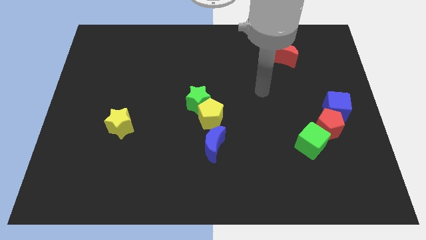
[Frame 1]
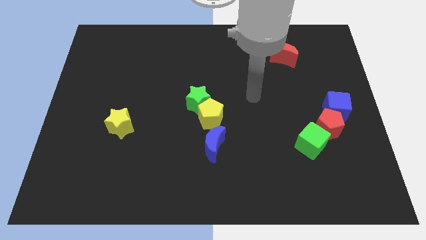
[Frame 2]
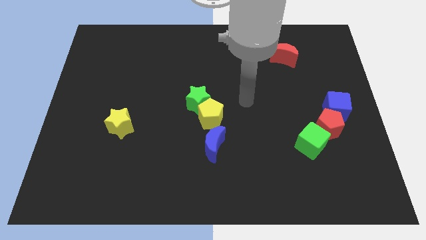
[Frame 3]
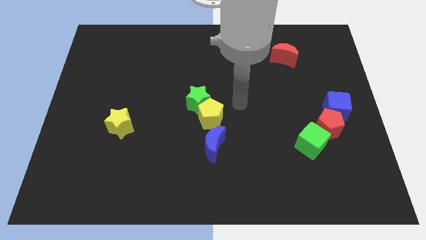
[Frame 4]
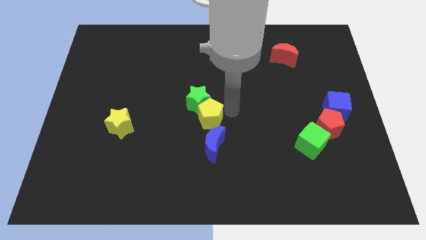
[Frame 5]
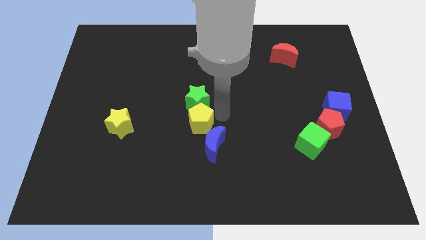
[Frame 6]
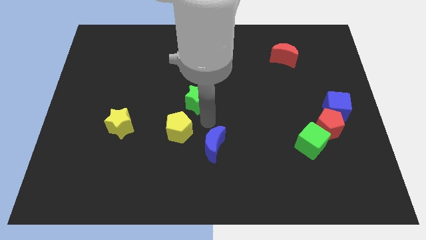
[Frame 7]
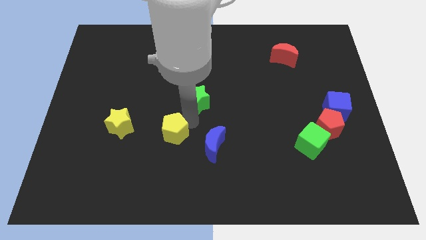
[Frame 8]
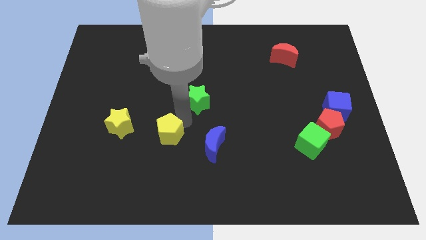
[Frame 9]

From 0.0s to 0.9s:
separate the green star from the yellow pentagon

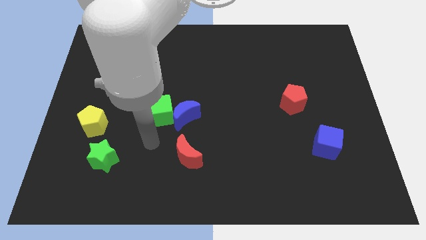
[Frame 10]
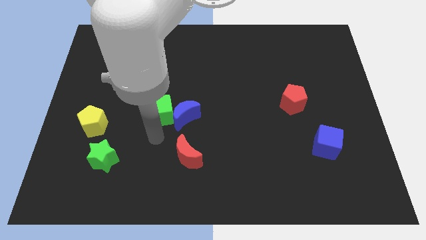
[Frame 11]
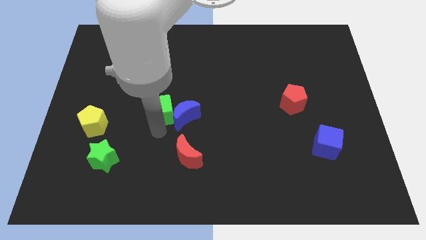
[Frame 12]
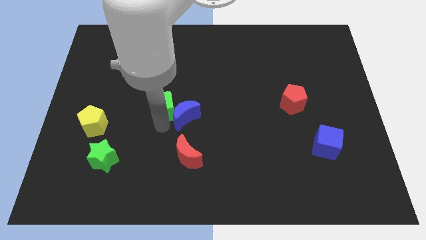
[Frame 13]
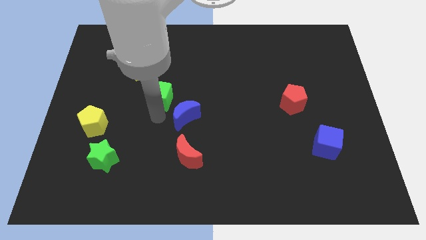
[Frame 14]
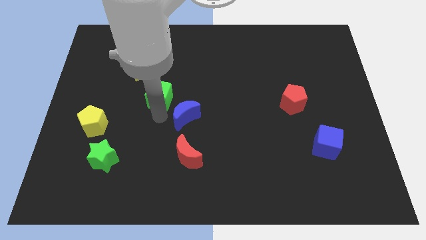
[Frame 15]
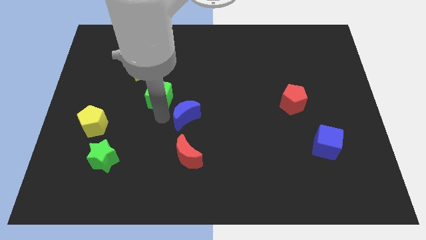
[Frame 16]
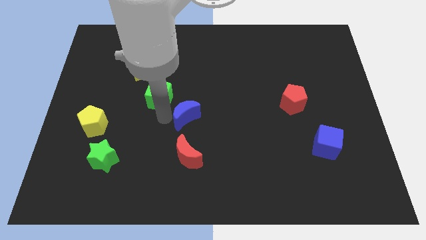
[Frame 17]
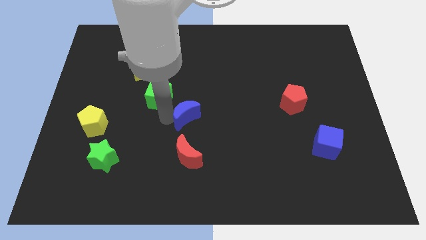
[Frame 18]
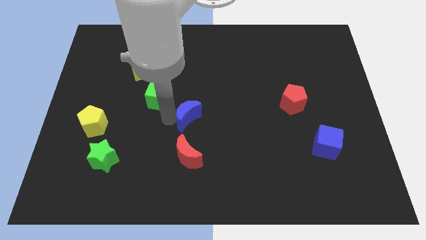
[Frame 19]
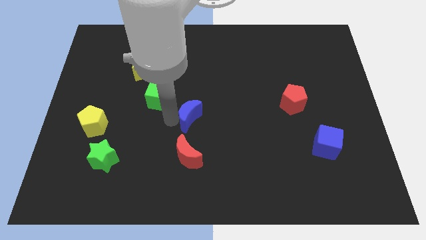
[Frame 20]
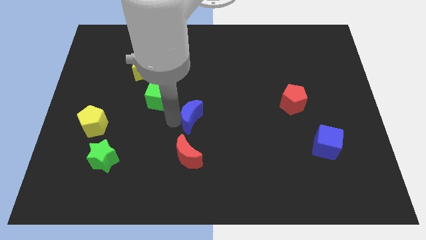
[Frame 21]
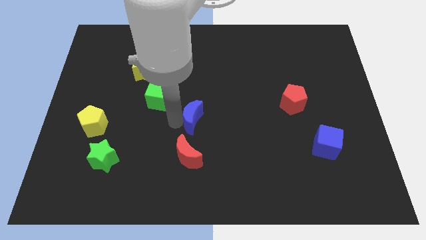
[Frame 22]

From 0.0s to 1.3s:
pull the blue moon apart from the green cube

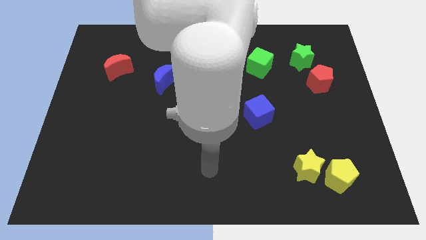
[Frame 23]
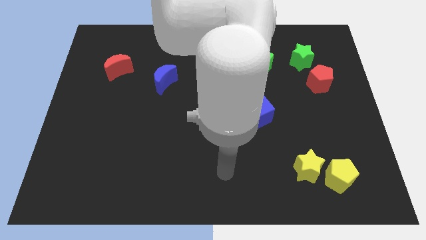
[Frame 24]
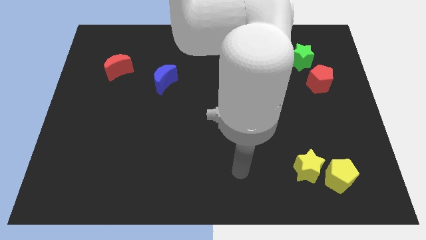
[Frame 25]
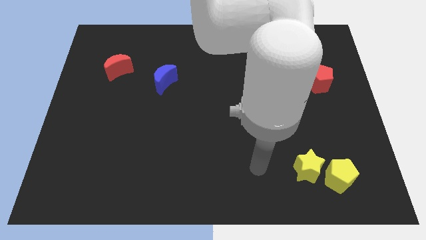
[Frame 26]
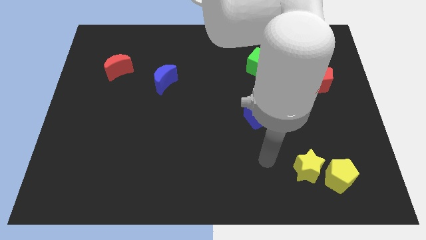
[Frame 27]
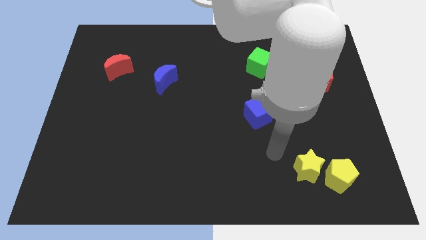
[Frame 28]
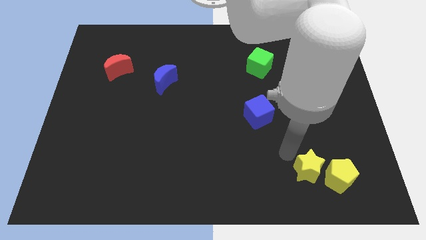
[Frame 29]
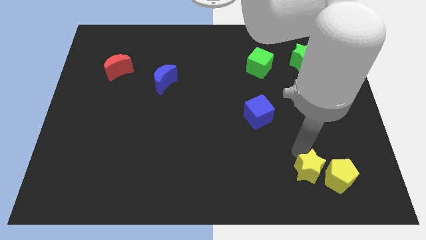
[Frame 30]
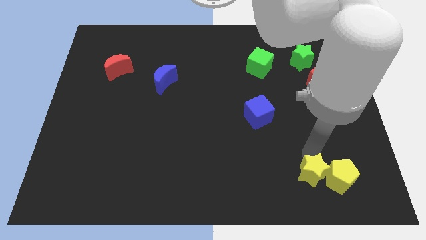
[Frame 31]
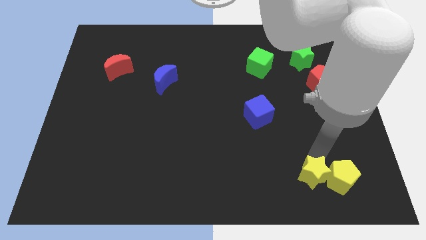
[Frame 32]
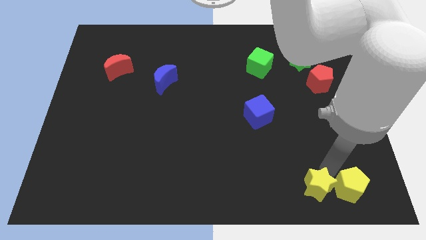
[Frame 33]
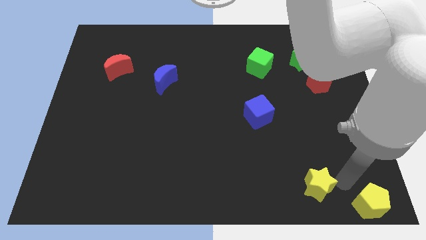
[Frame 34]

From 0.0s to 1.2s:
separate the yellow star from the yellow pentagon

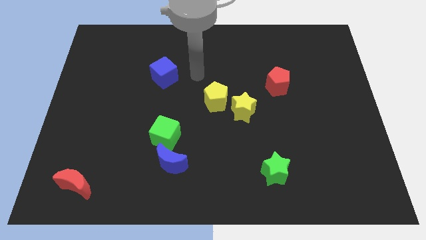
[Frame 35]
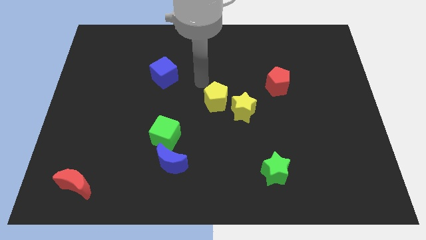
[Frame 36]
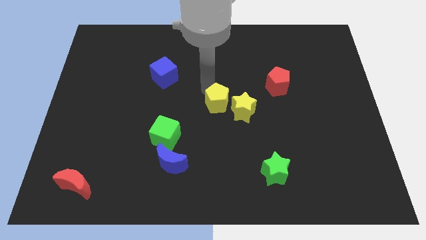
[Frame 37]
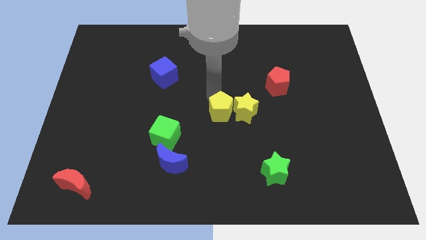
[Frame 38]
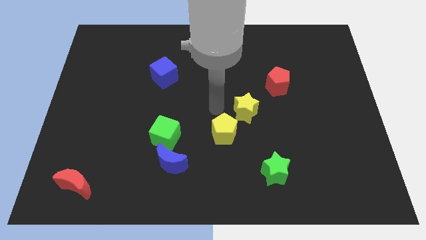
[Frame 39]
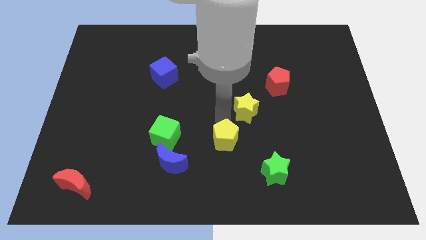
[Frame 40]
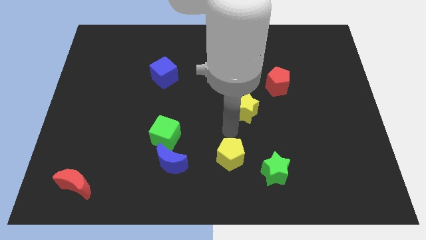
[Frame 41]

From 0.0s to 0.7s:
pull the yellow star apart from the yellow pentagon

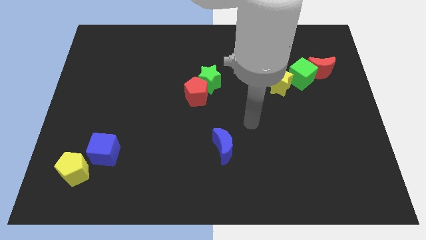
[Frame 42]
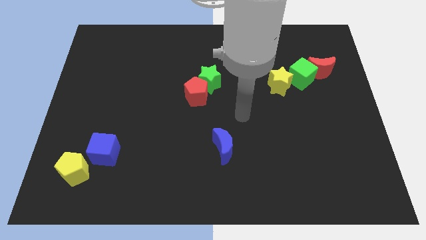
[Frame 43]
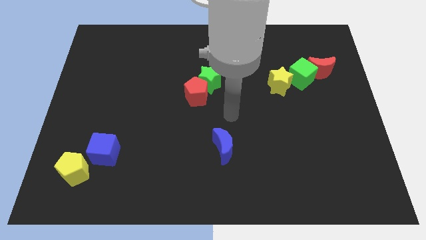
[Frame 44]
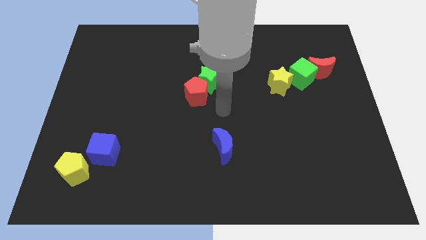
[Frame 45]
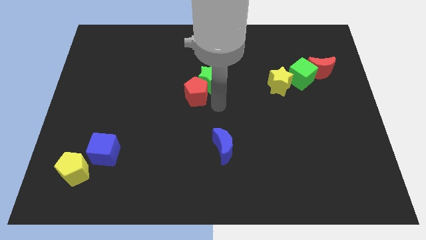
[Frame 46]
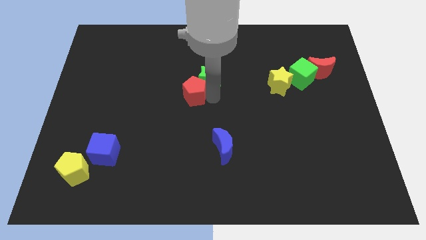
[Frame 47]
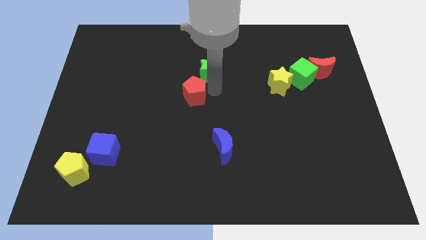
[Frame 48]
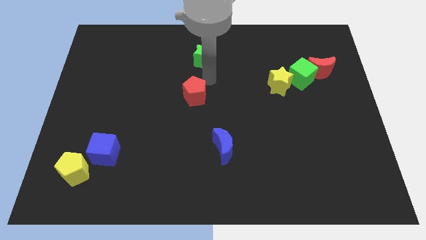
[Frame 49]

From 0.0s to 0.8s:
move the red pentagon away from the green star

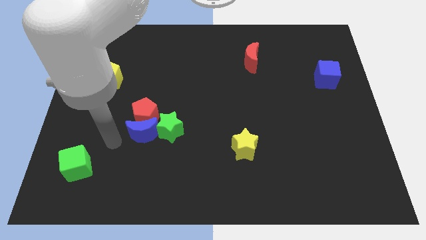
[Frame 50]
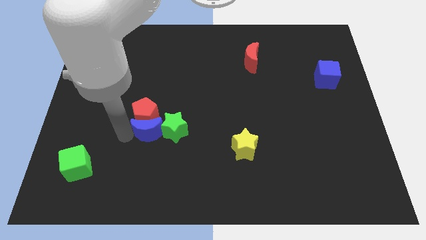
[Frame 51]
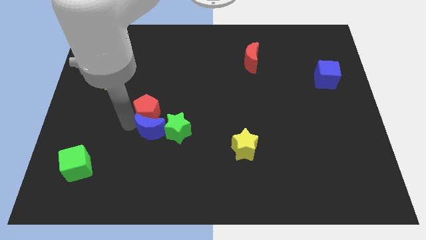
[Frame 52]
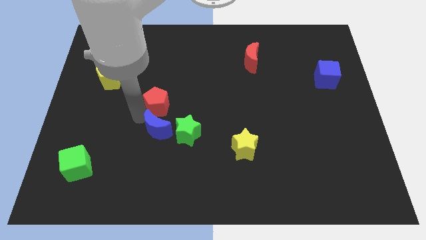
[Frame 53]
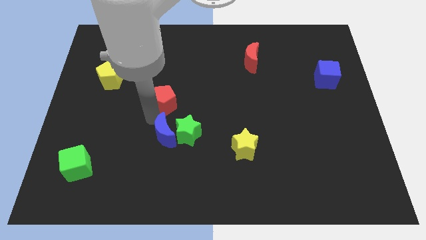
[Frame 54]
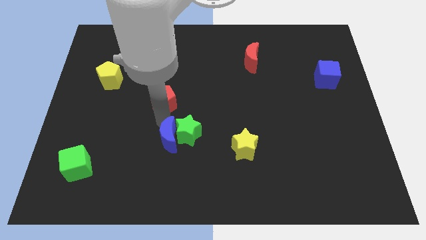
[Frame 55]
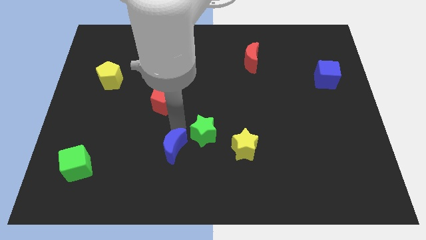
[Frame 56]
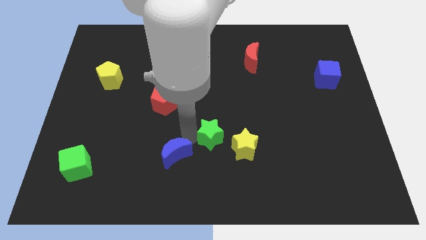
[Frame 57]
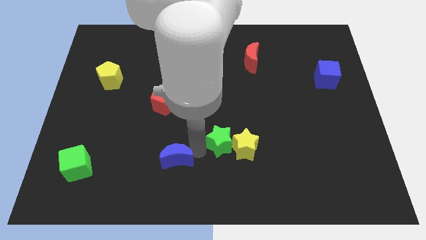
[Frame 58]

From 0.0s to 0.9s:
separate the blue moon from the red pentagon and green star

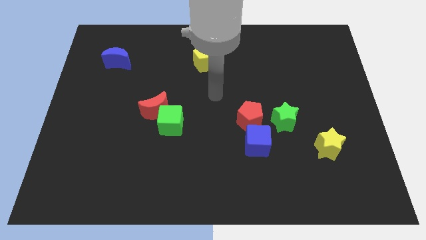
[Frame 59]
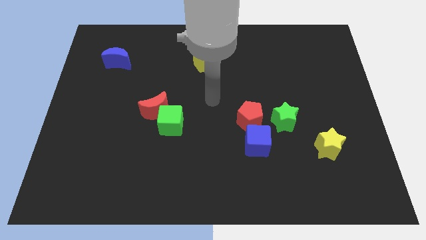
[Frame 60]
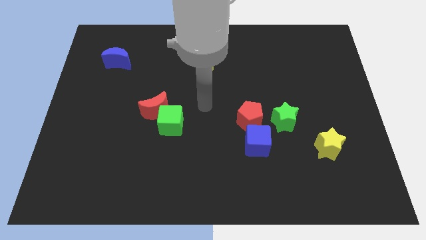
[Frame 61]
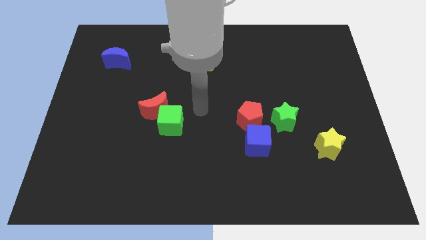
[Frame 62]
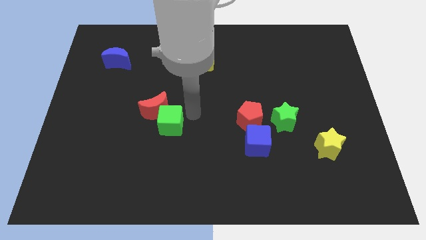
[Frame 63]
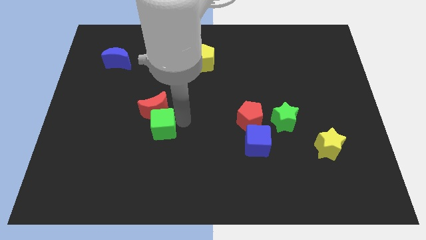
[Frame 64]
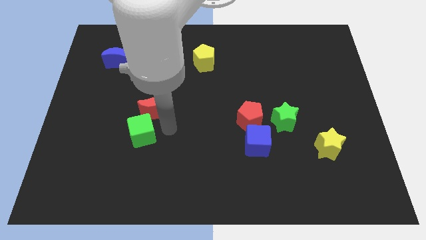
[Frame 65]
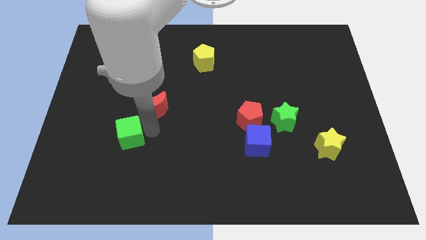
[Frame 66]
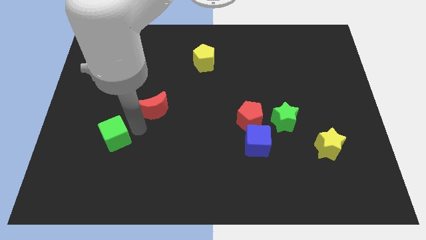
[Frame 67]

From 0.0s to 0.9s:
separate the red moon from the green cube

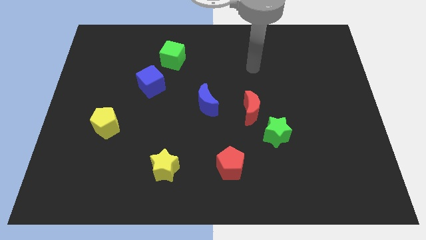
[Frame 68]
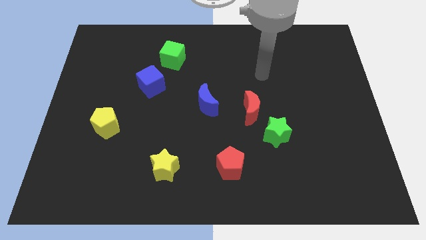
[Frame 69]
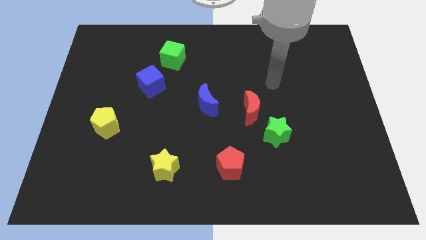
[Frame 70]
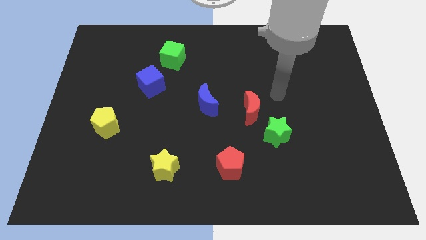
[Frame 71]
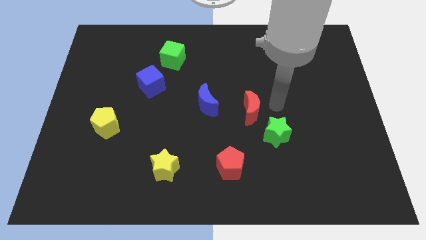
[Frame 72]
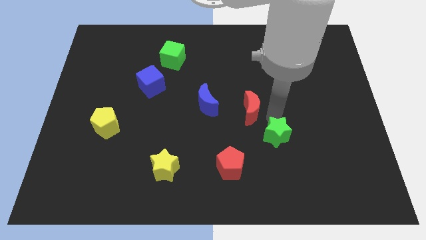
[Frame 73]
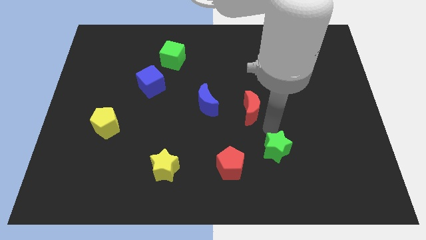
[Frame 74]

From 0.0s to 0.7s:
move the red moon away from the green star

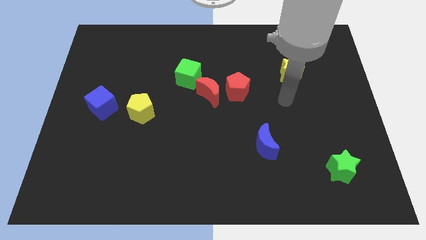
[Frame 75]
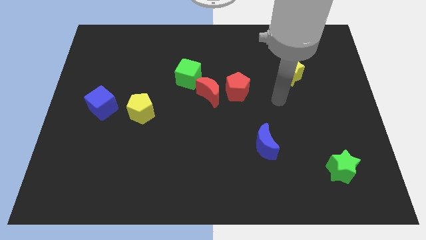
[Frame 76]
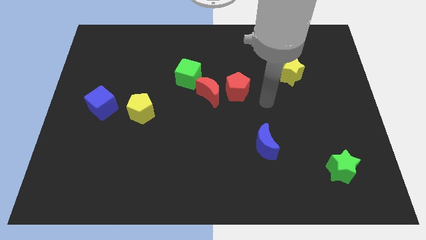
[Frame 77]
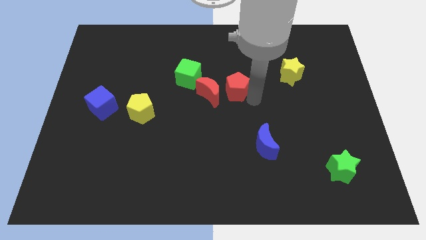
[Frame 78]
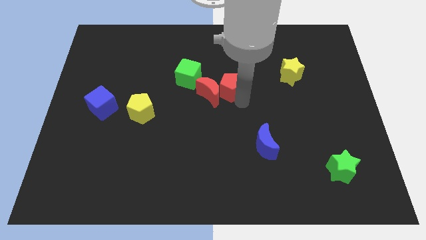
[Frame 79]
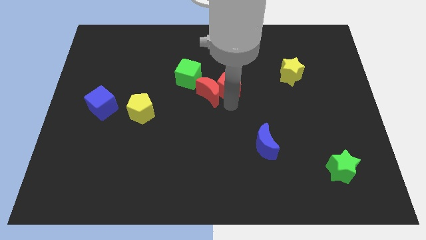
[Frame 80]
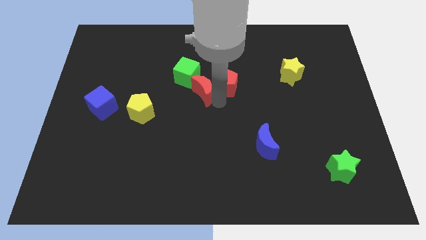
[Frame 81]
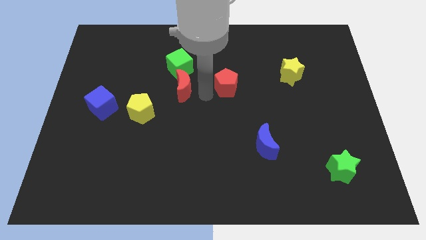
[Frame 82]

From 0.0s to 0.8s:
move the red pentagon away from the red moon

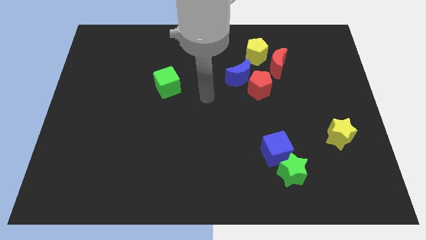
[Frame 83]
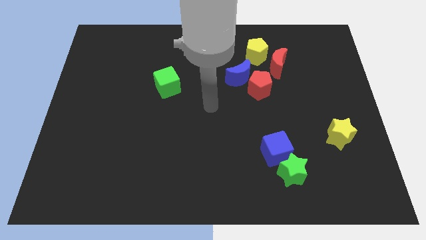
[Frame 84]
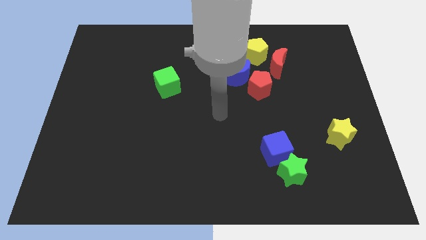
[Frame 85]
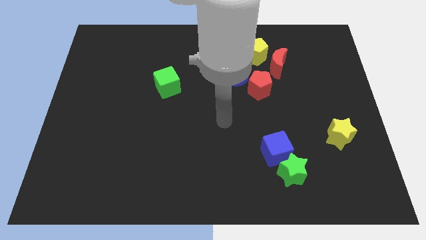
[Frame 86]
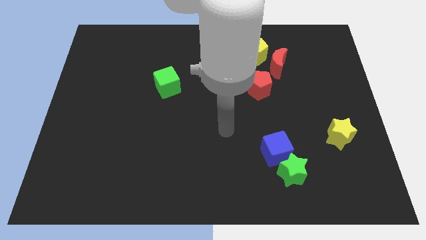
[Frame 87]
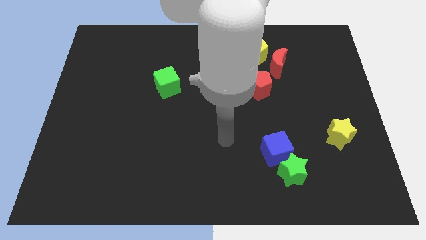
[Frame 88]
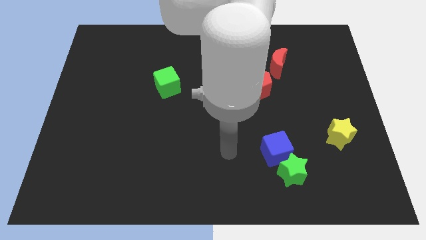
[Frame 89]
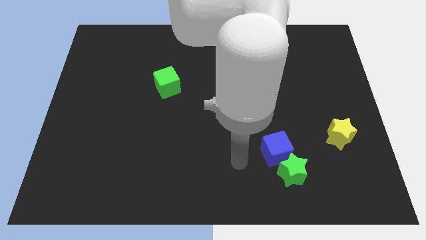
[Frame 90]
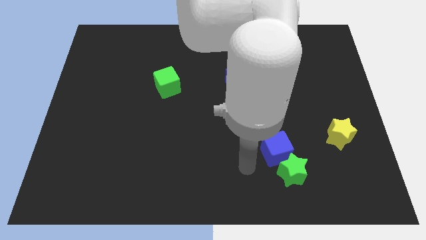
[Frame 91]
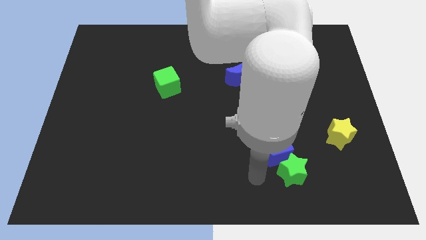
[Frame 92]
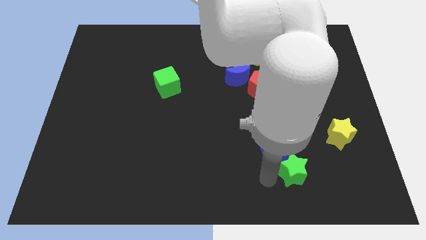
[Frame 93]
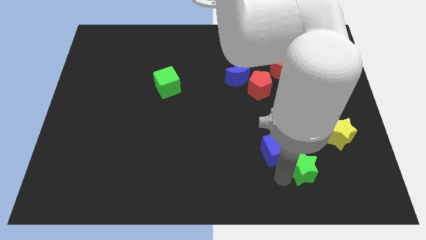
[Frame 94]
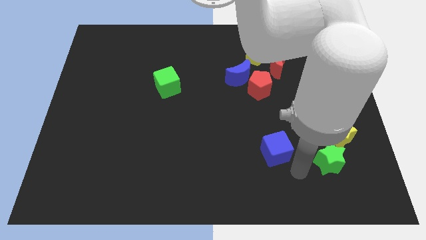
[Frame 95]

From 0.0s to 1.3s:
separate the blue cube from the green star
